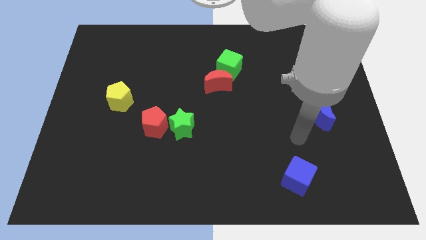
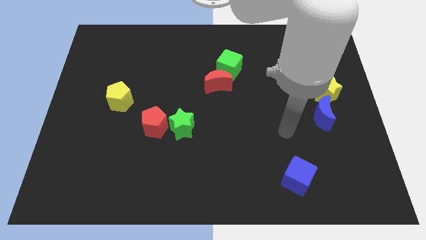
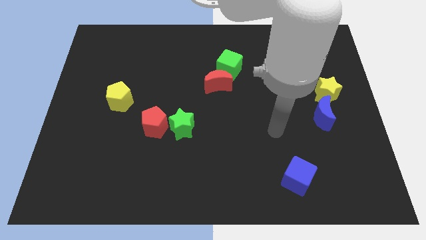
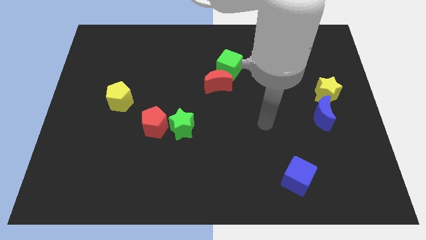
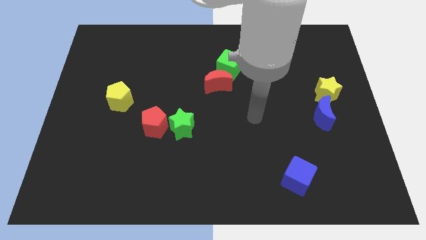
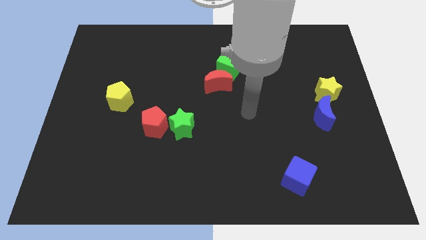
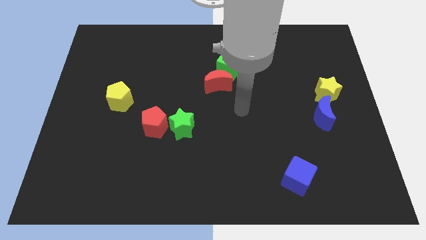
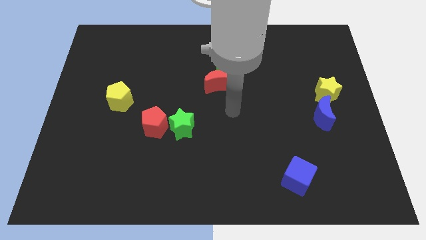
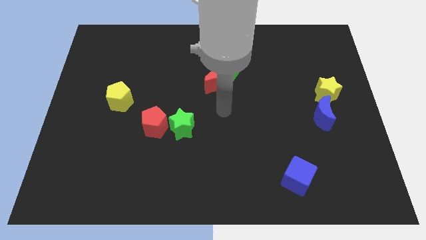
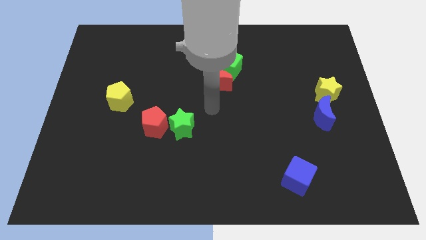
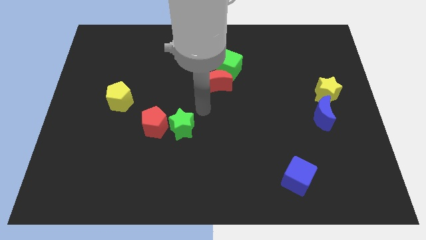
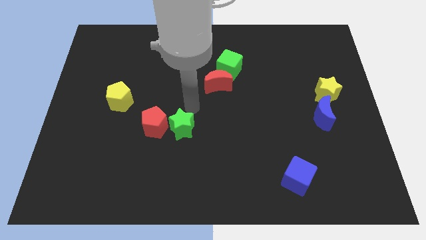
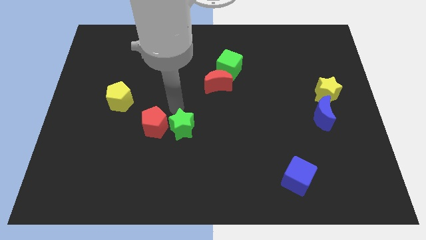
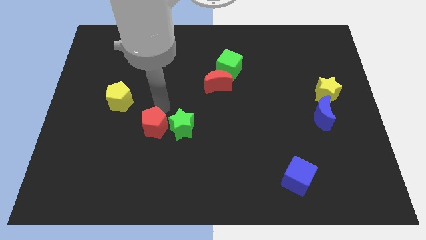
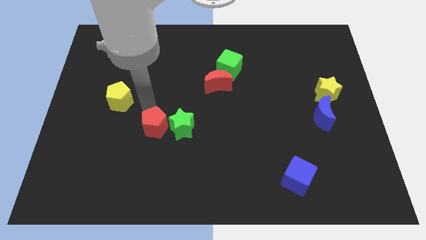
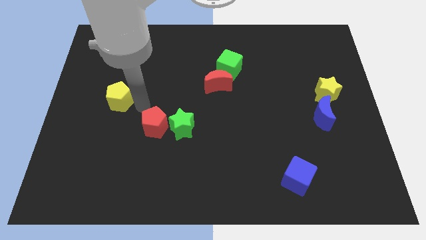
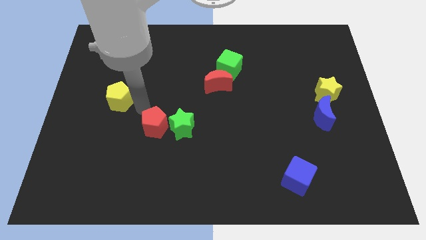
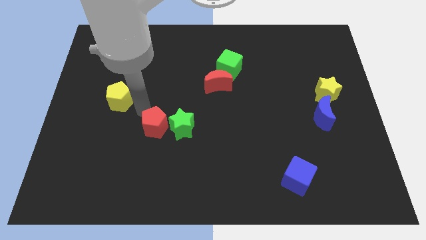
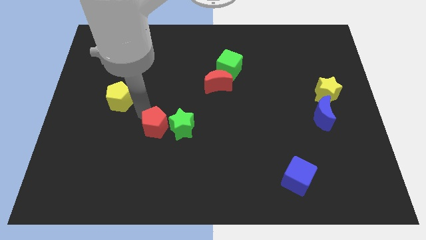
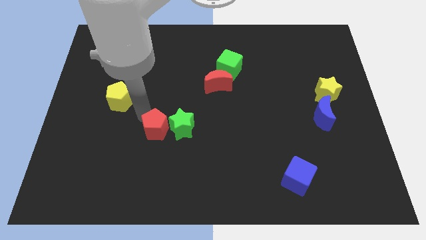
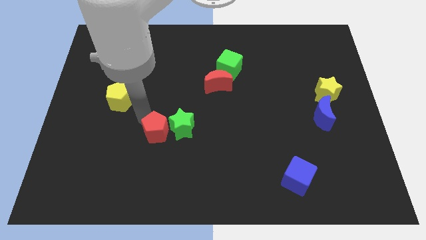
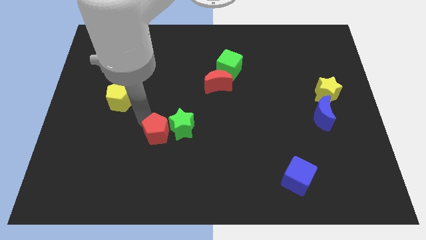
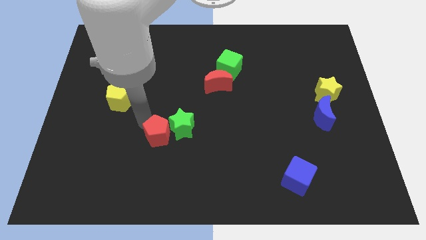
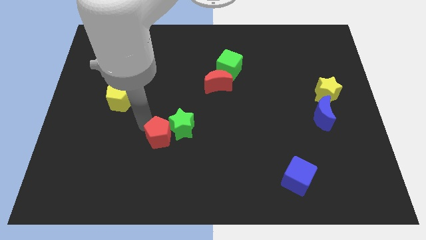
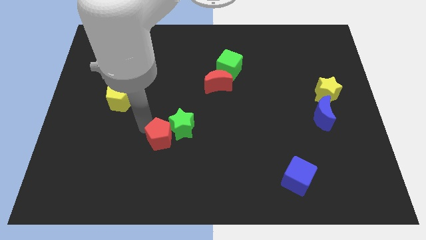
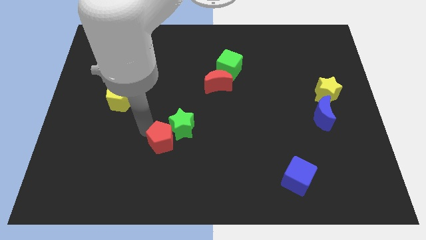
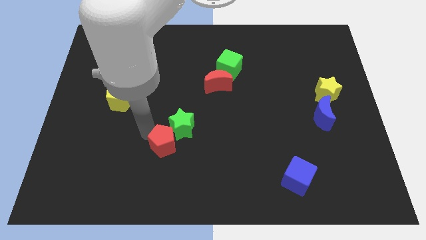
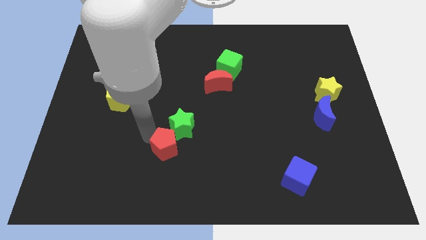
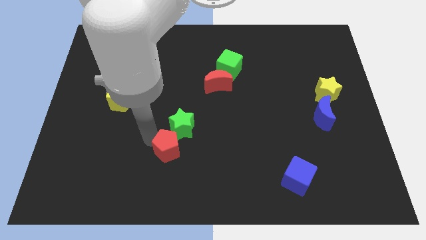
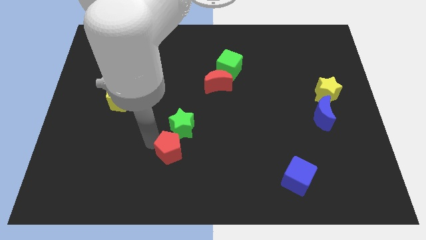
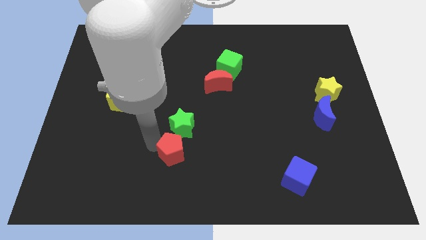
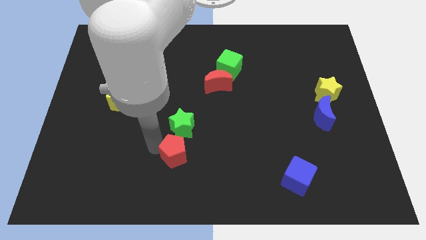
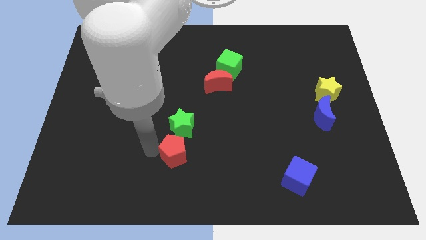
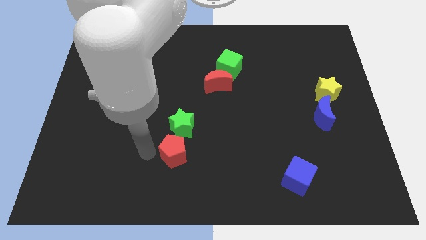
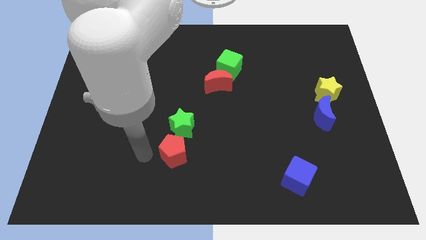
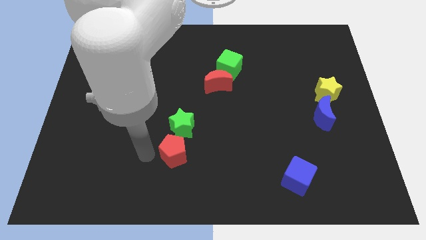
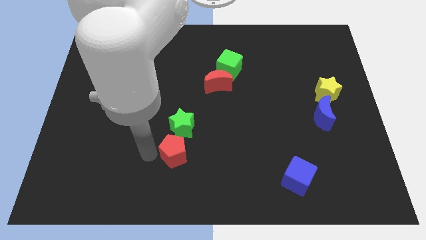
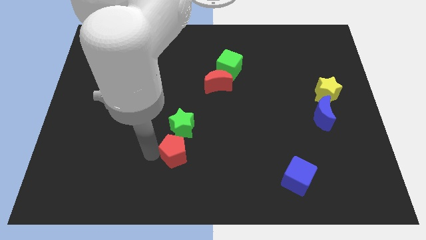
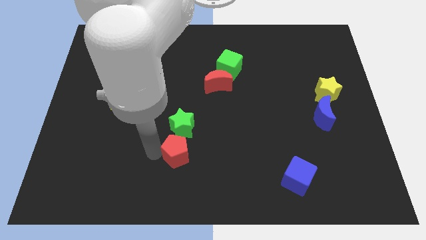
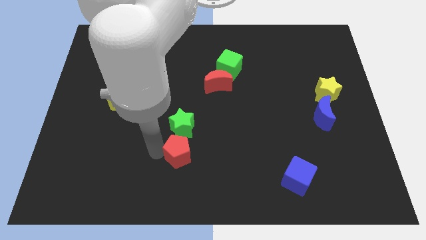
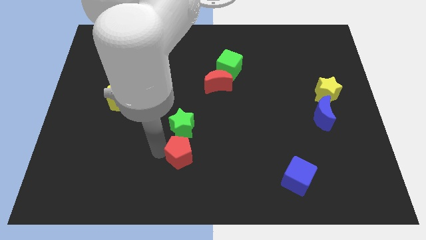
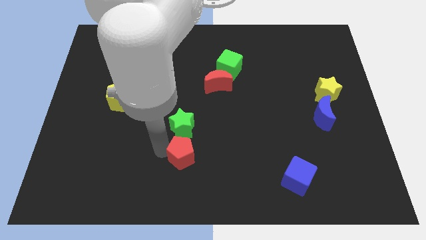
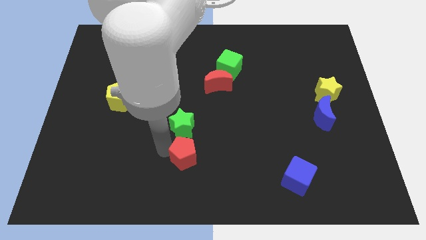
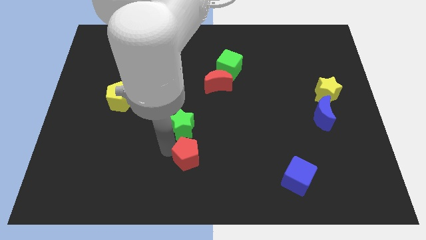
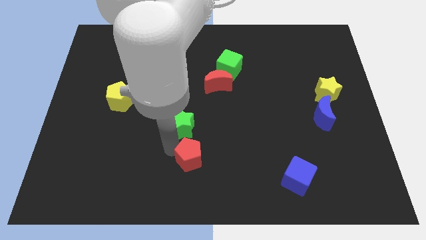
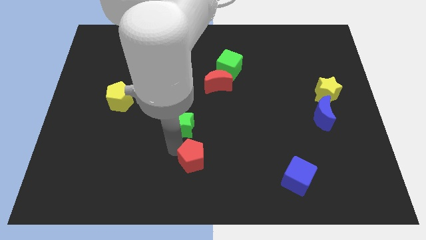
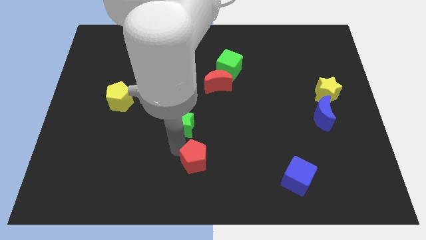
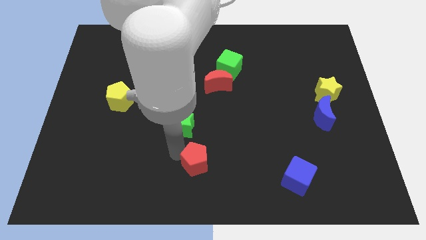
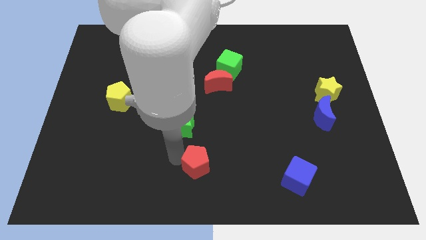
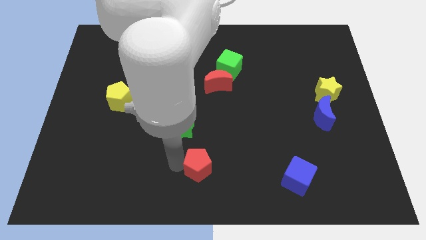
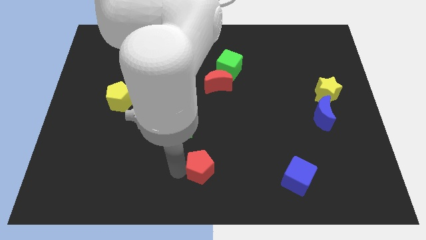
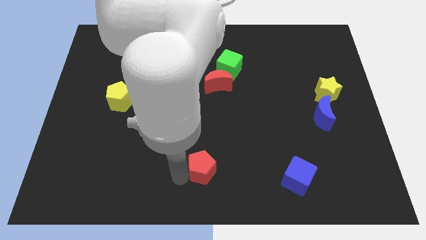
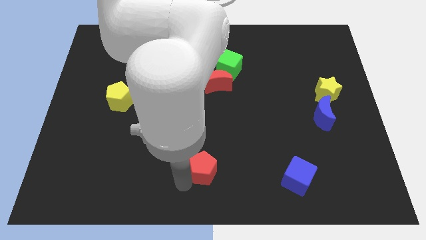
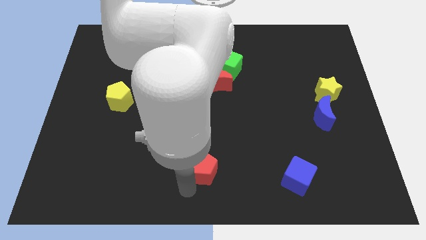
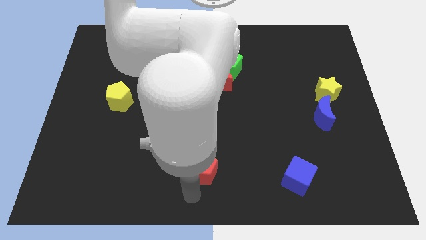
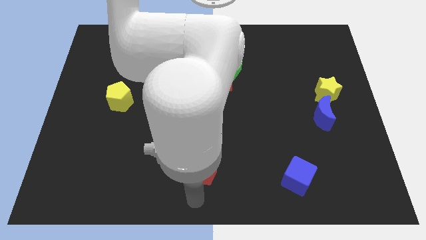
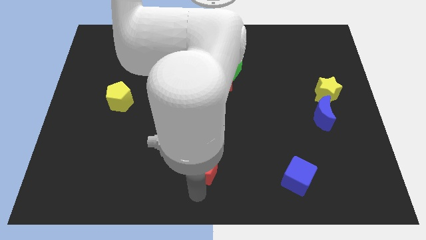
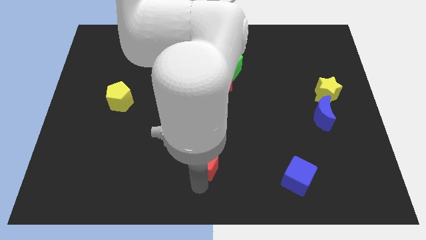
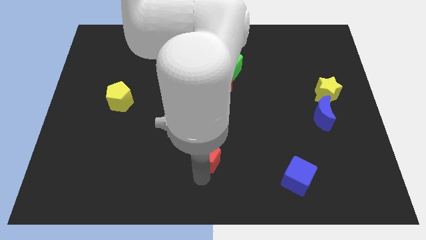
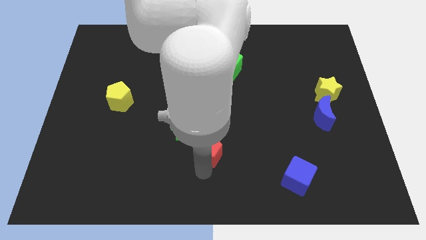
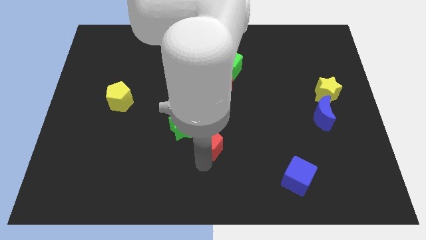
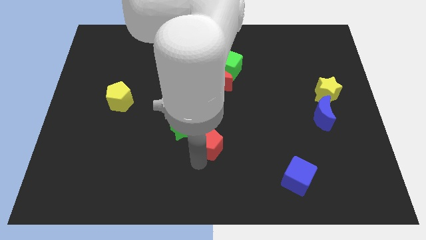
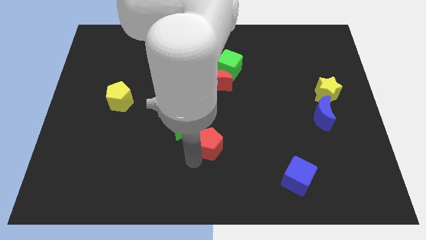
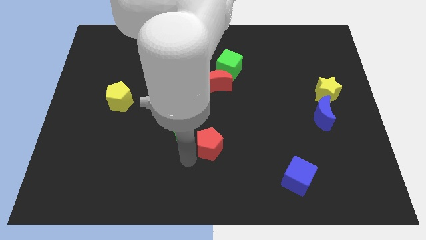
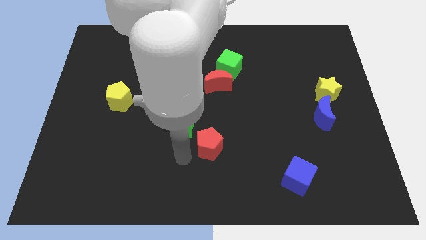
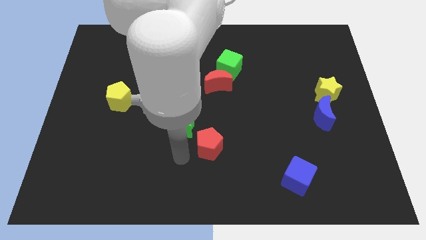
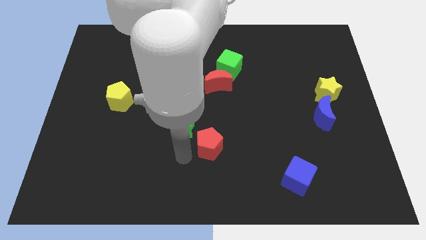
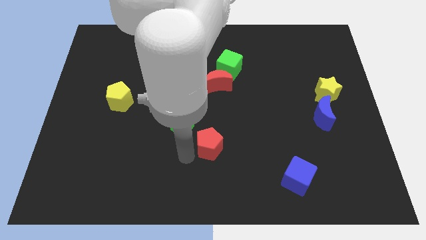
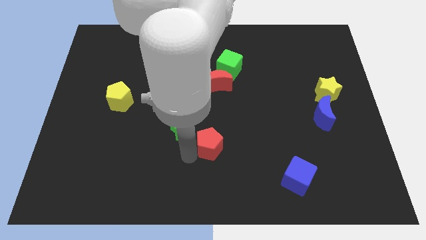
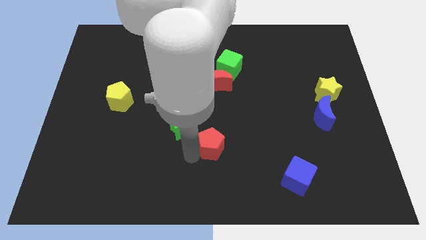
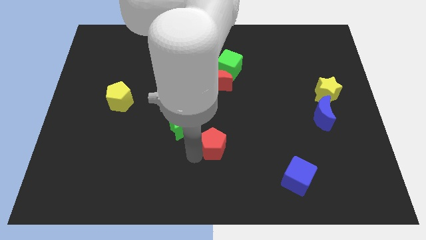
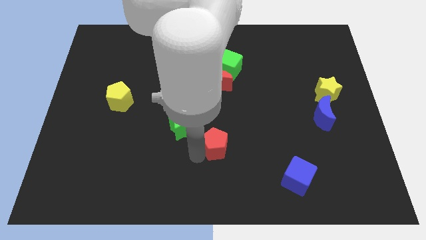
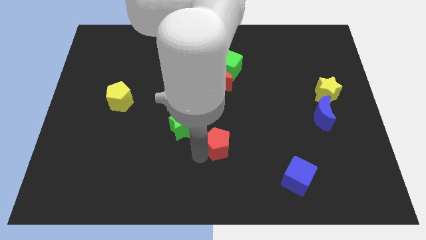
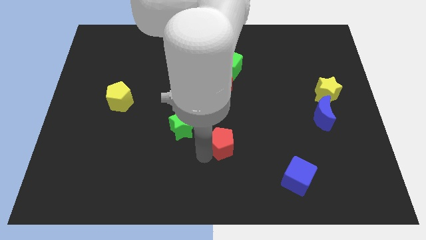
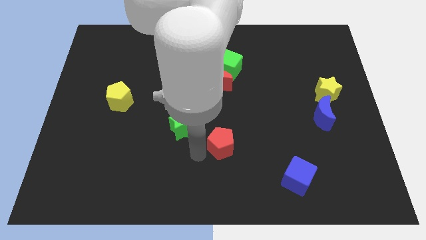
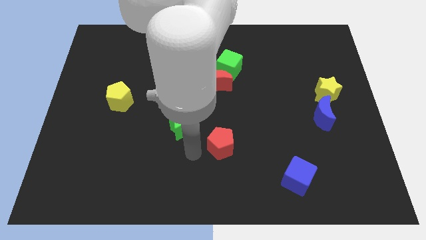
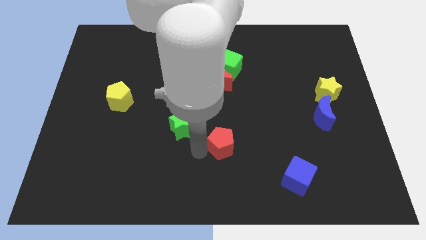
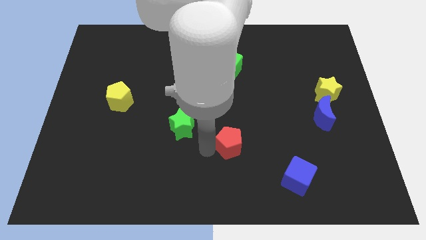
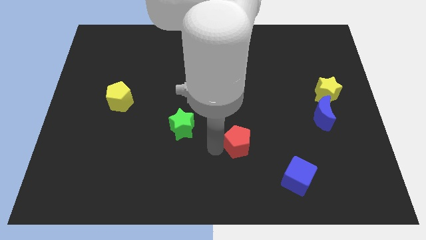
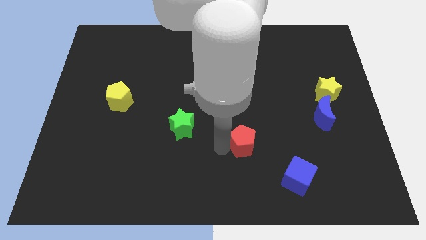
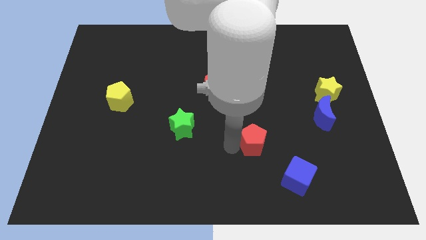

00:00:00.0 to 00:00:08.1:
move the red pentagon right

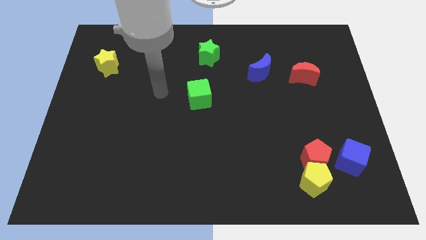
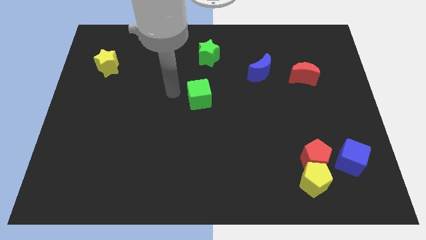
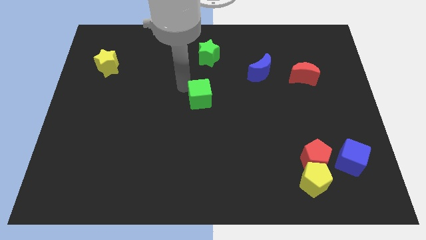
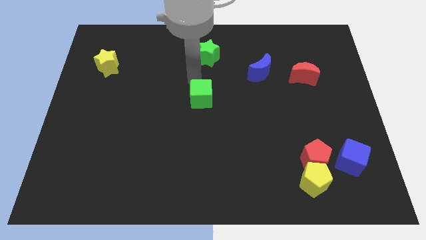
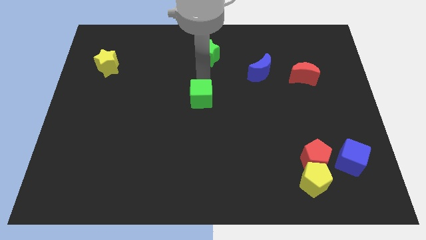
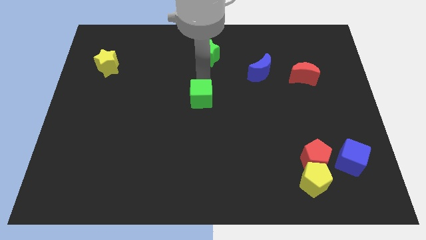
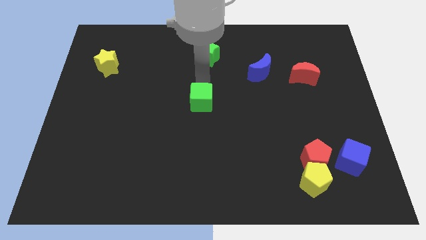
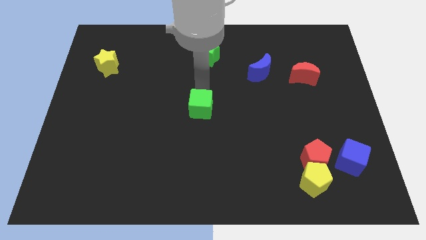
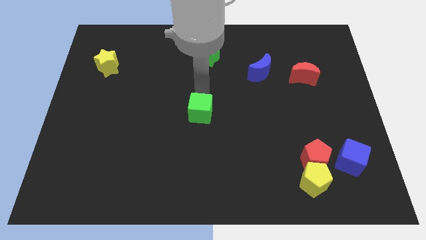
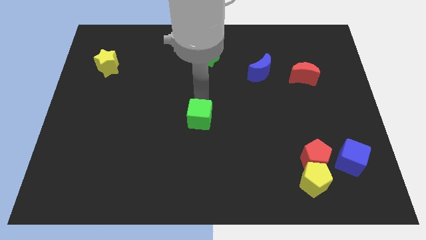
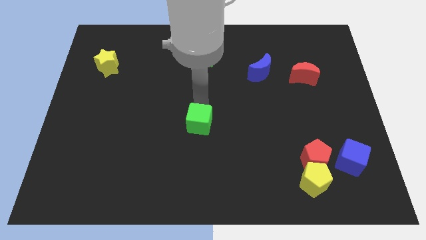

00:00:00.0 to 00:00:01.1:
slightly push the green cube down
